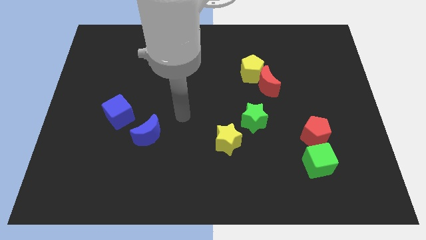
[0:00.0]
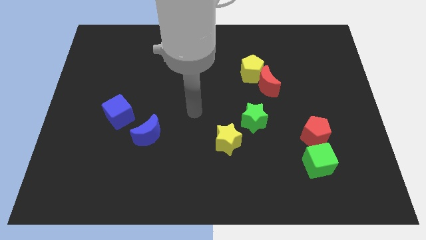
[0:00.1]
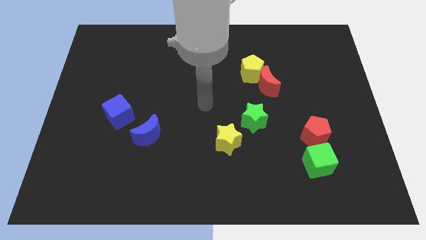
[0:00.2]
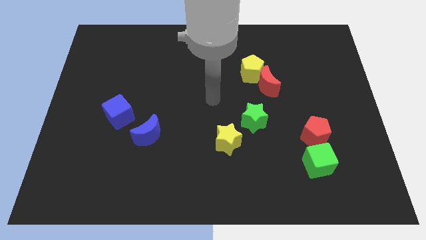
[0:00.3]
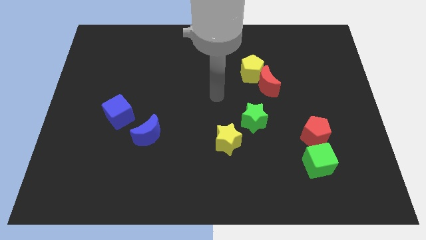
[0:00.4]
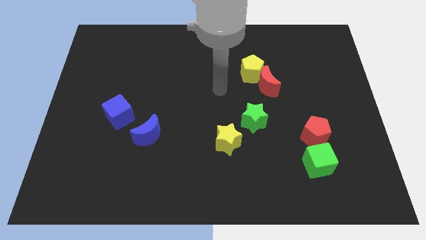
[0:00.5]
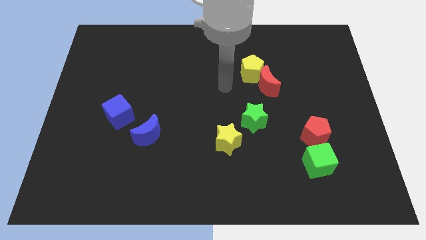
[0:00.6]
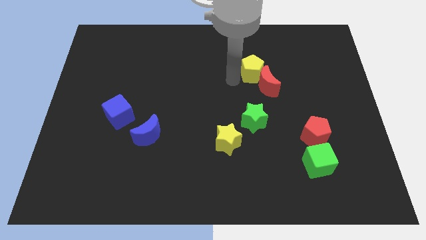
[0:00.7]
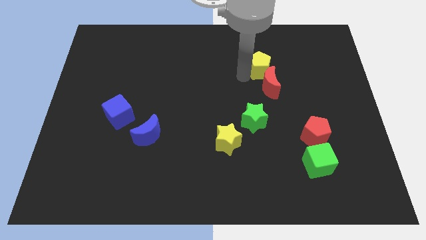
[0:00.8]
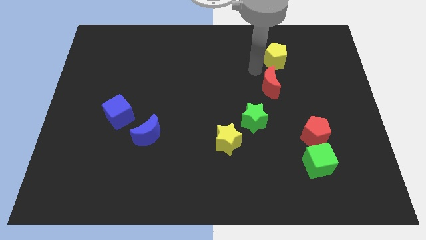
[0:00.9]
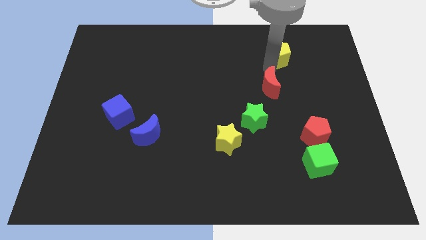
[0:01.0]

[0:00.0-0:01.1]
move the red moon away from the yellow pentagon

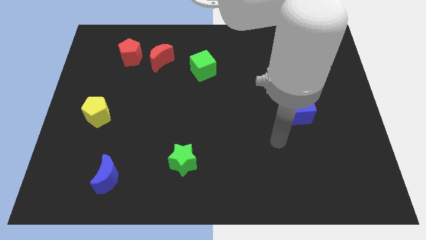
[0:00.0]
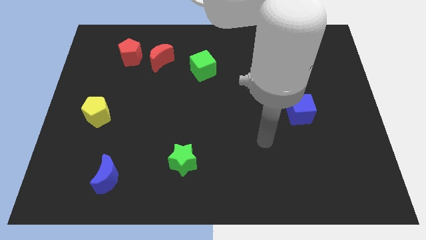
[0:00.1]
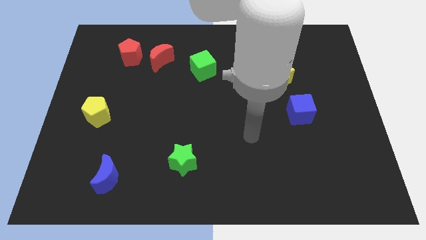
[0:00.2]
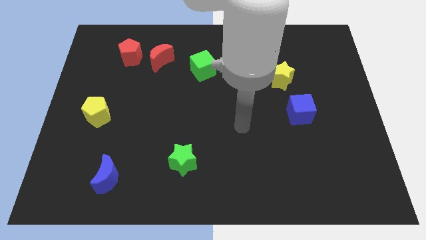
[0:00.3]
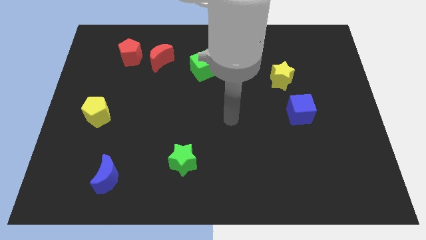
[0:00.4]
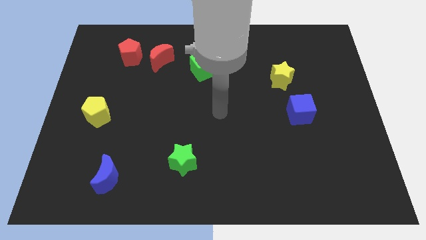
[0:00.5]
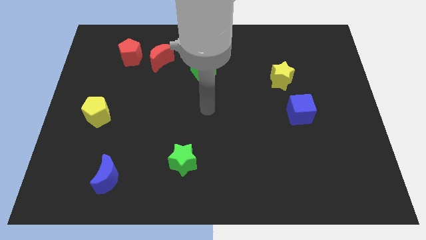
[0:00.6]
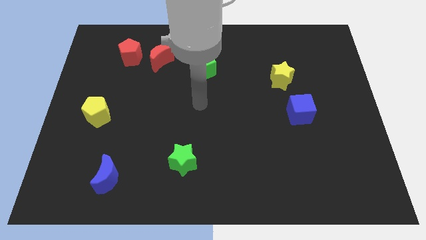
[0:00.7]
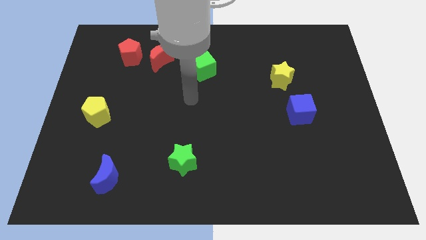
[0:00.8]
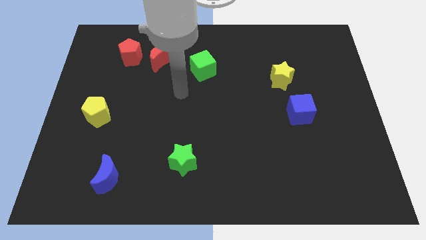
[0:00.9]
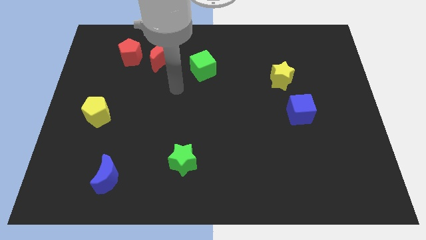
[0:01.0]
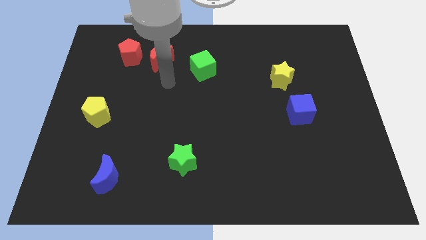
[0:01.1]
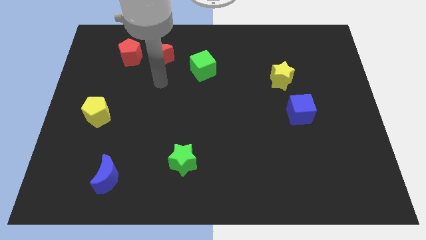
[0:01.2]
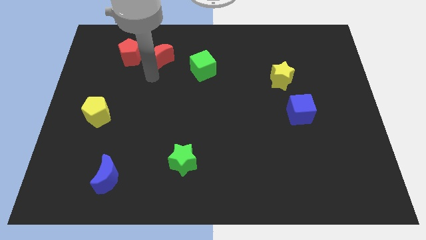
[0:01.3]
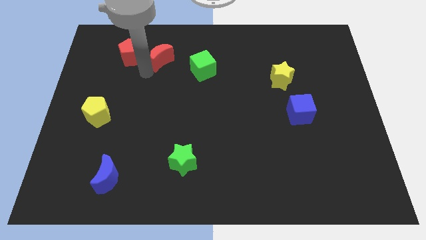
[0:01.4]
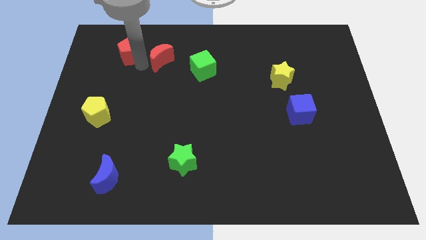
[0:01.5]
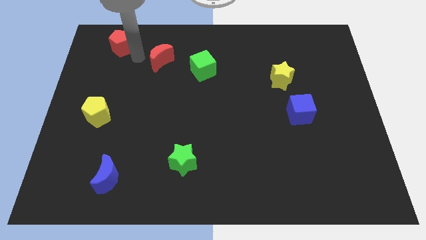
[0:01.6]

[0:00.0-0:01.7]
pull the red moon apart from the red pentagon

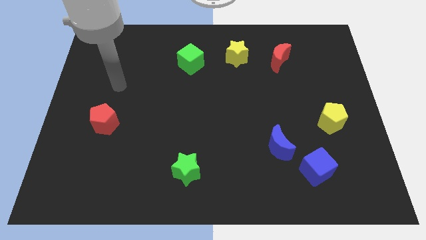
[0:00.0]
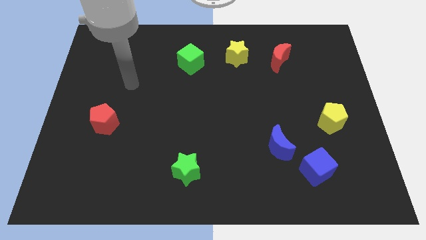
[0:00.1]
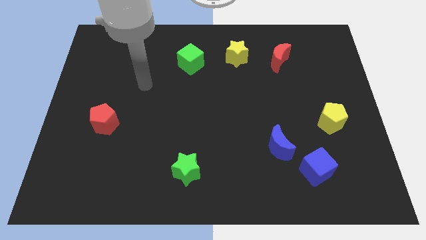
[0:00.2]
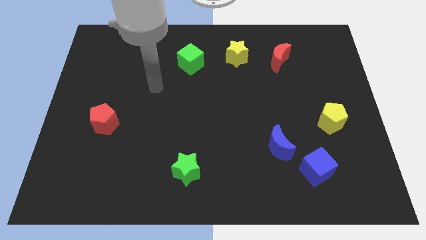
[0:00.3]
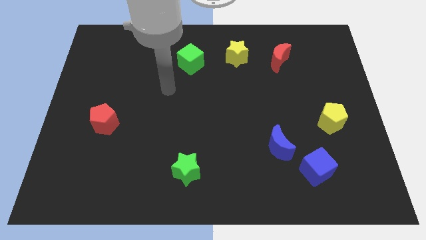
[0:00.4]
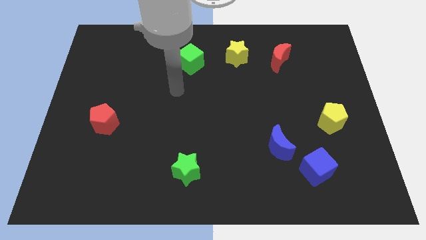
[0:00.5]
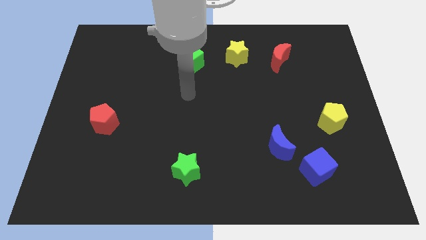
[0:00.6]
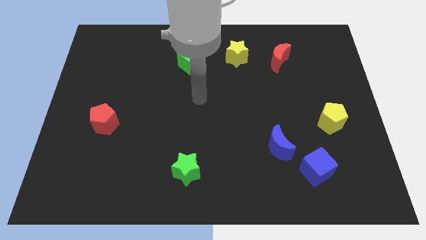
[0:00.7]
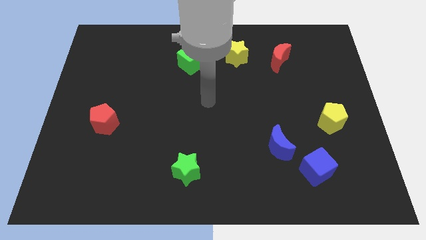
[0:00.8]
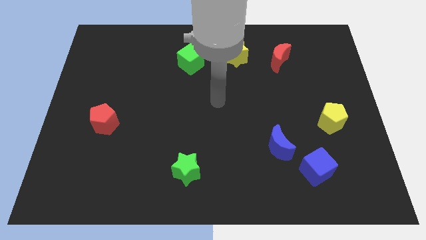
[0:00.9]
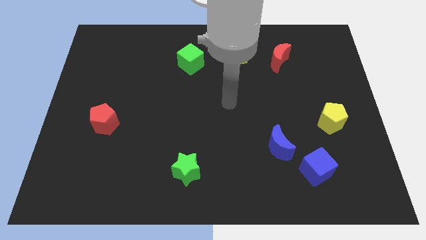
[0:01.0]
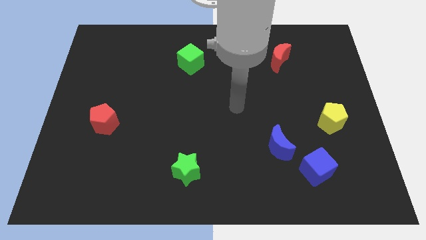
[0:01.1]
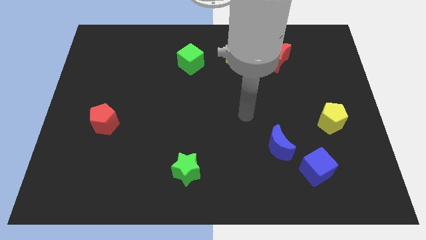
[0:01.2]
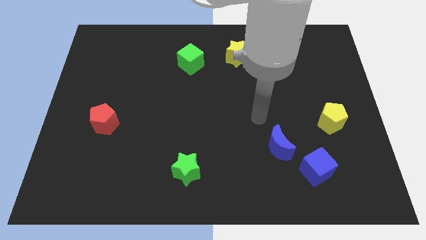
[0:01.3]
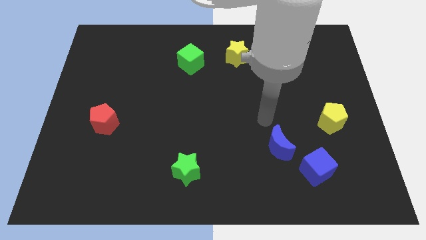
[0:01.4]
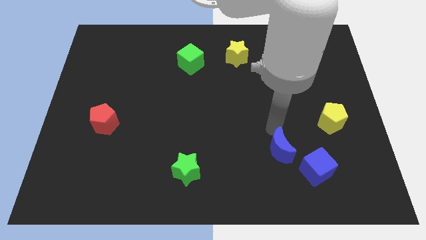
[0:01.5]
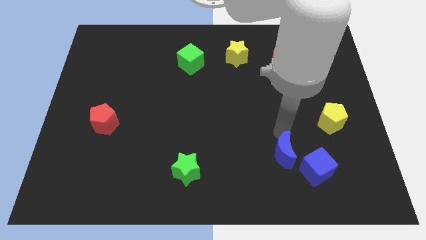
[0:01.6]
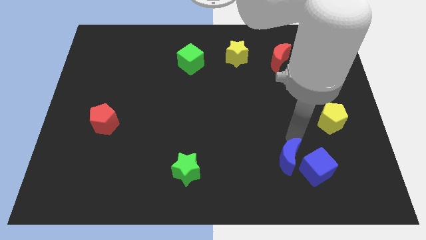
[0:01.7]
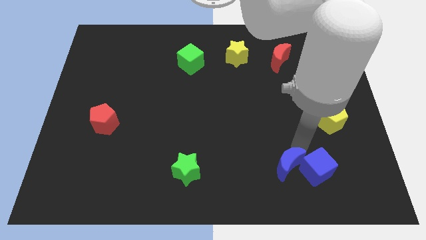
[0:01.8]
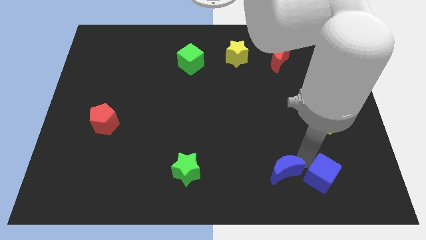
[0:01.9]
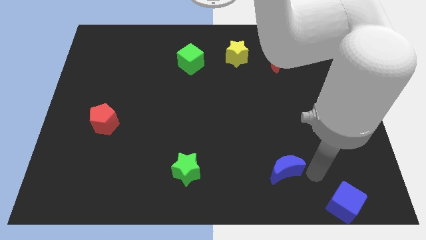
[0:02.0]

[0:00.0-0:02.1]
move the blue moon away from the blue cube

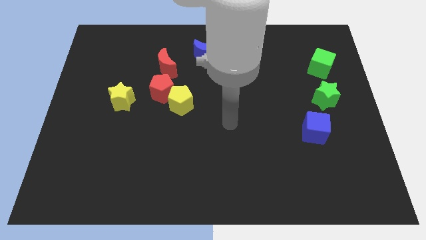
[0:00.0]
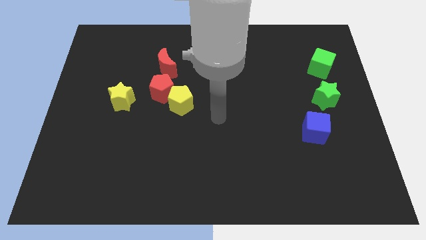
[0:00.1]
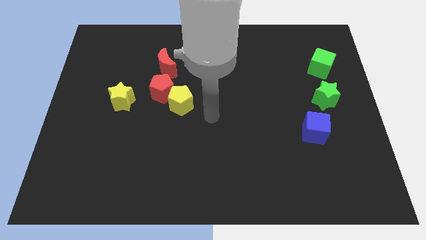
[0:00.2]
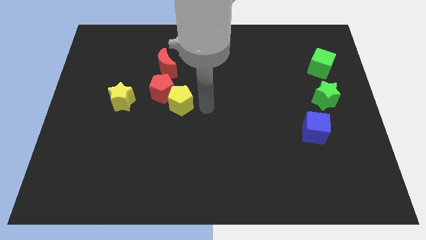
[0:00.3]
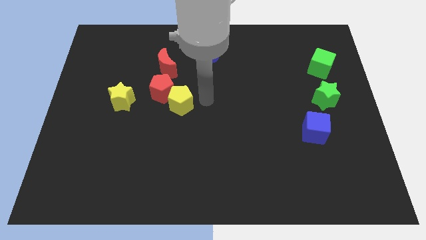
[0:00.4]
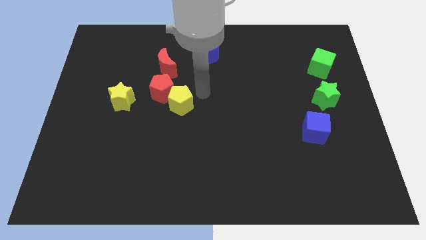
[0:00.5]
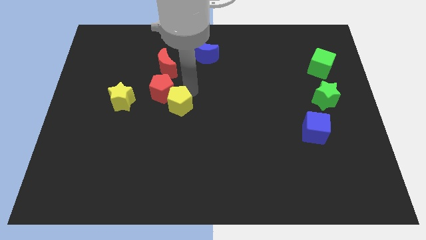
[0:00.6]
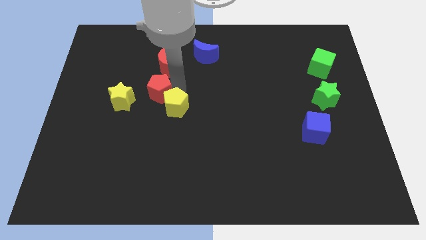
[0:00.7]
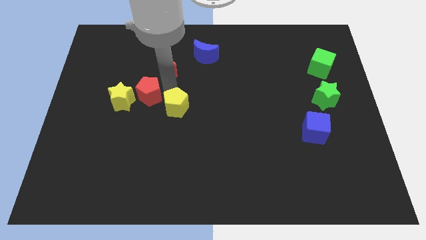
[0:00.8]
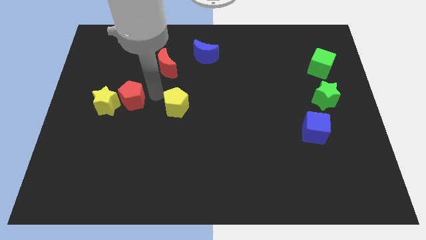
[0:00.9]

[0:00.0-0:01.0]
move the yellow pentagon away from the red pentagon

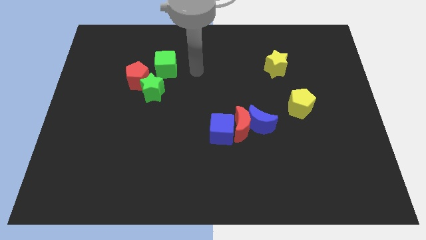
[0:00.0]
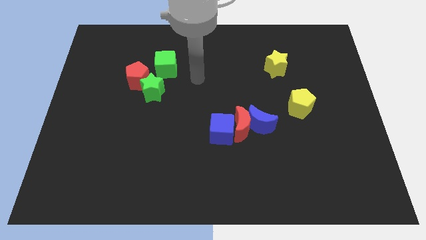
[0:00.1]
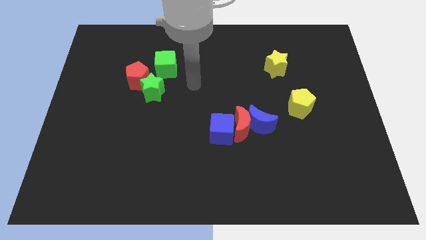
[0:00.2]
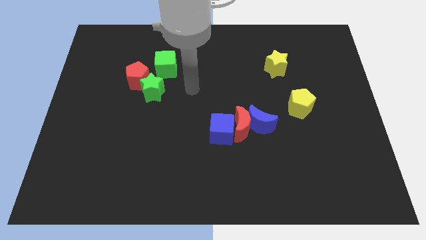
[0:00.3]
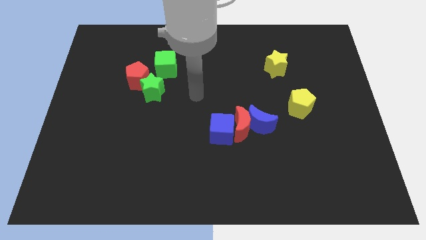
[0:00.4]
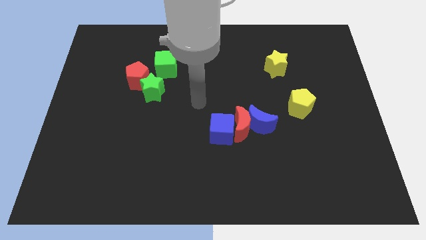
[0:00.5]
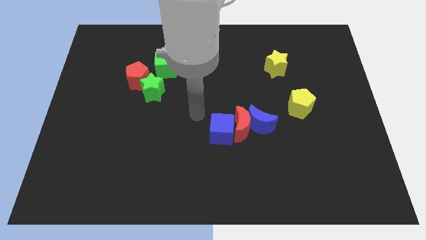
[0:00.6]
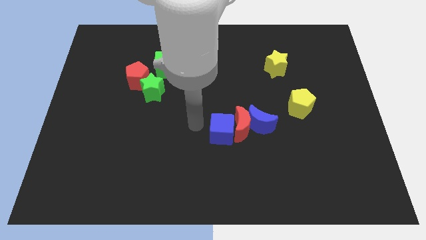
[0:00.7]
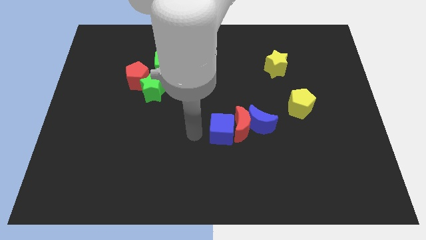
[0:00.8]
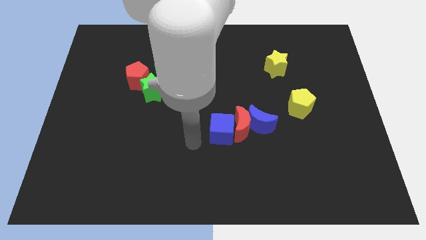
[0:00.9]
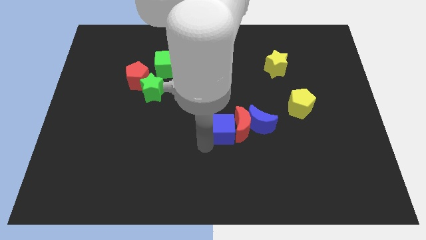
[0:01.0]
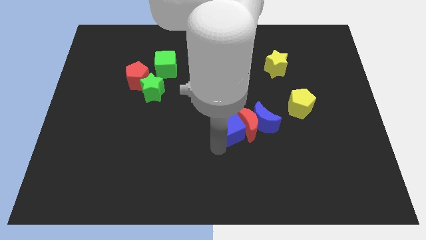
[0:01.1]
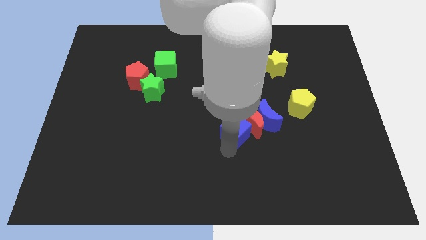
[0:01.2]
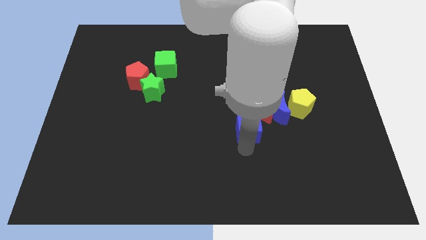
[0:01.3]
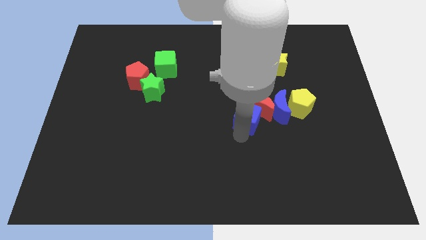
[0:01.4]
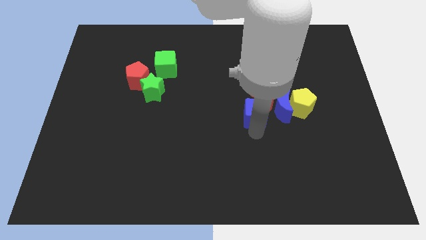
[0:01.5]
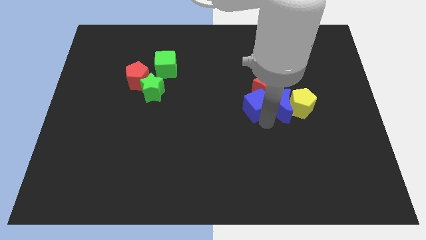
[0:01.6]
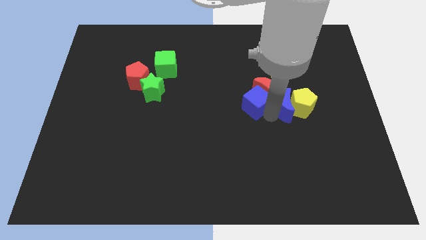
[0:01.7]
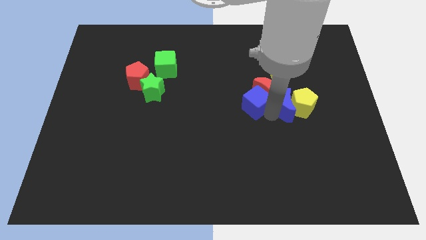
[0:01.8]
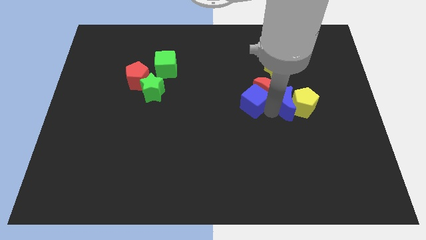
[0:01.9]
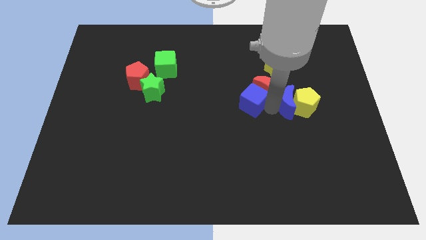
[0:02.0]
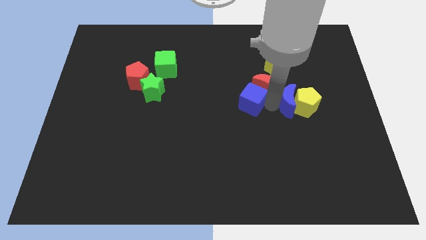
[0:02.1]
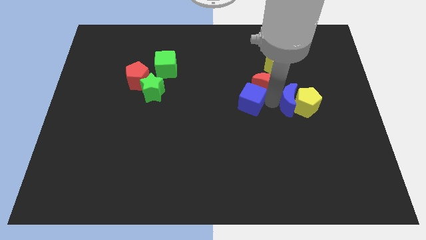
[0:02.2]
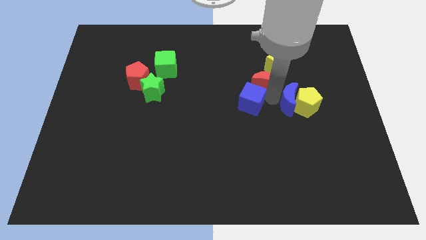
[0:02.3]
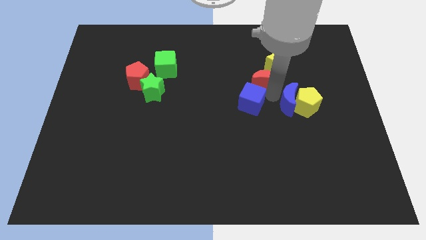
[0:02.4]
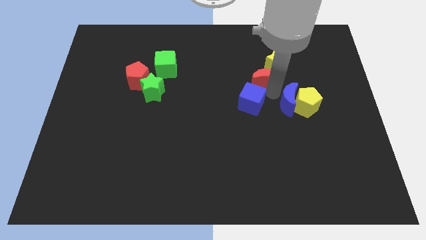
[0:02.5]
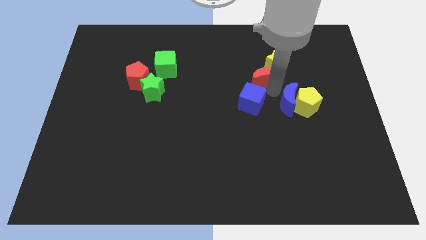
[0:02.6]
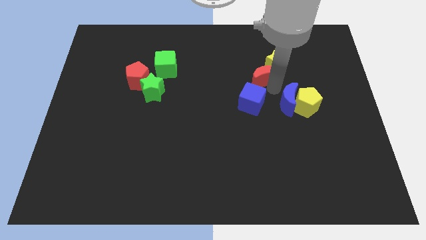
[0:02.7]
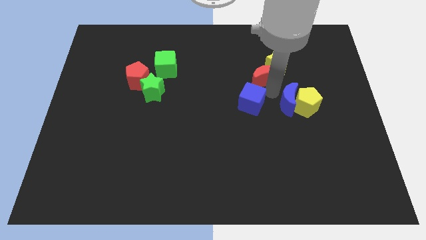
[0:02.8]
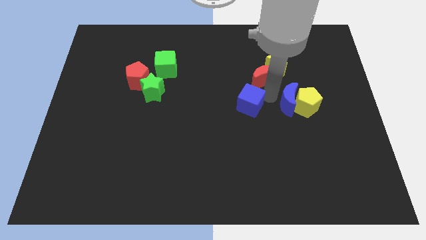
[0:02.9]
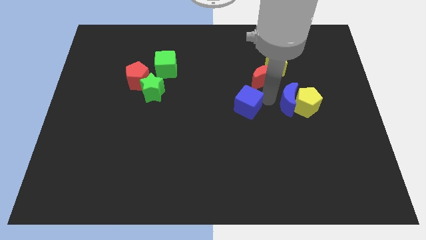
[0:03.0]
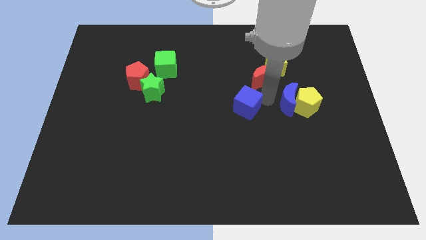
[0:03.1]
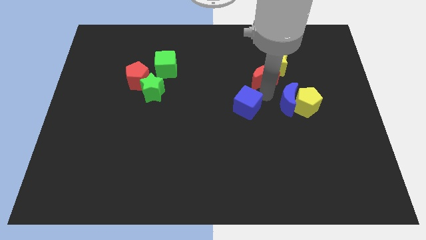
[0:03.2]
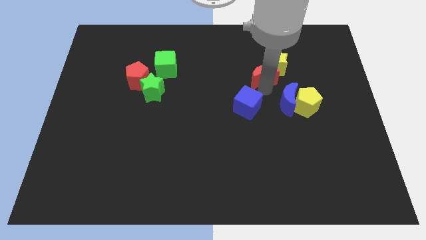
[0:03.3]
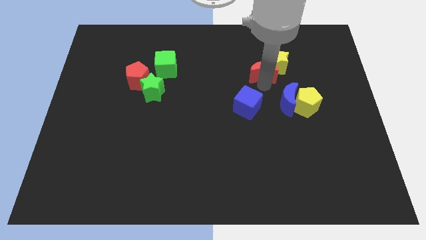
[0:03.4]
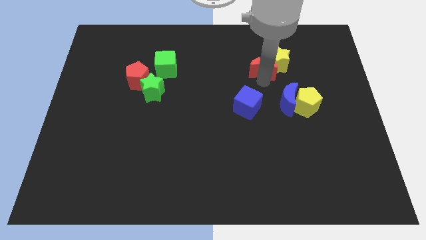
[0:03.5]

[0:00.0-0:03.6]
move the red moon away from the blue moon and blue cube

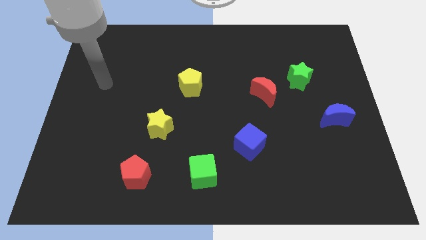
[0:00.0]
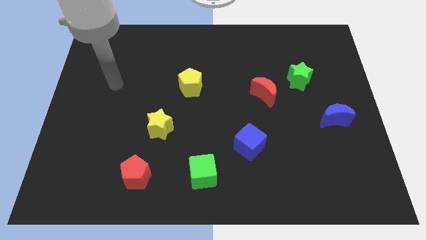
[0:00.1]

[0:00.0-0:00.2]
separate the red moon from the green star
